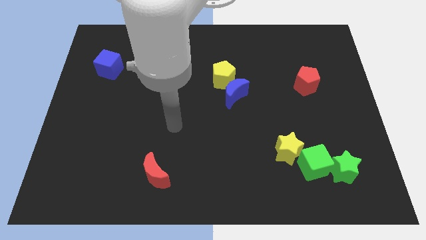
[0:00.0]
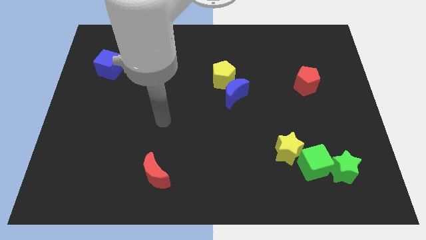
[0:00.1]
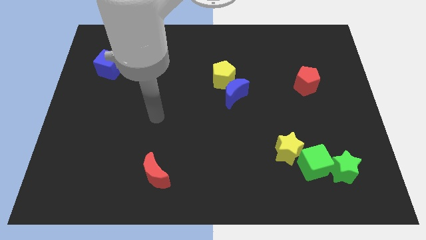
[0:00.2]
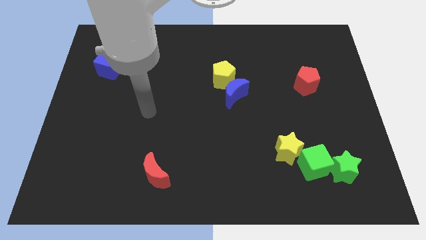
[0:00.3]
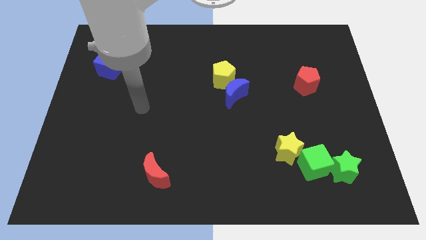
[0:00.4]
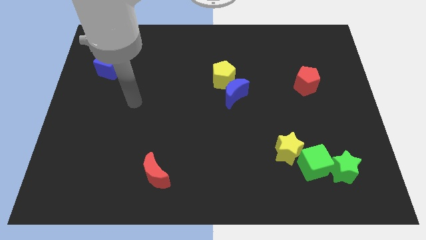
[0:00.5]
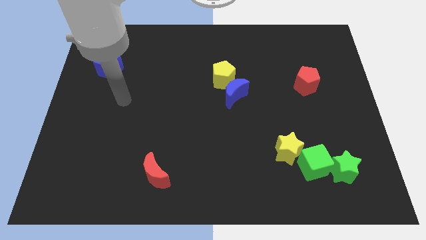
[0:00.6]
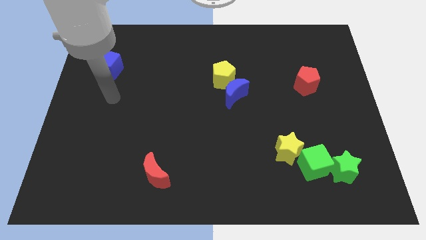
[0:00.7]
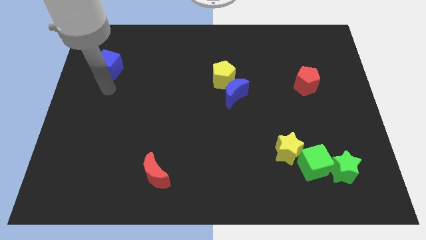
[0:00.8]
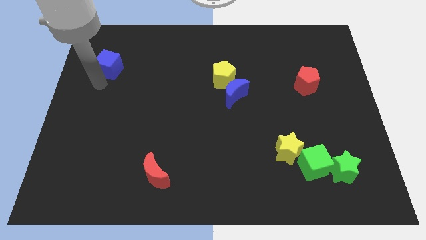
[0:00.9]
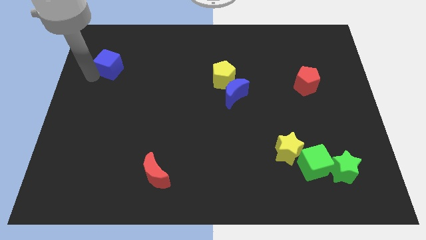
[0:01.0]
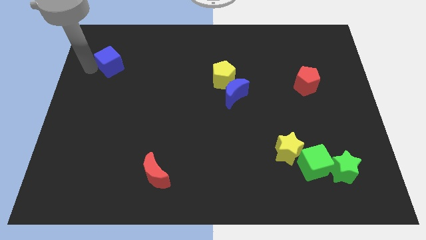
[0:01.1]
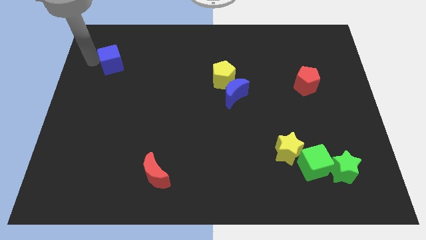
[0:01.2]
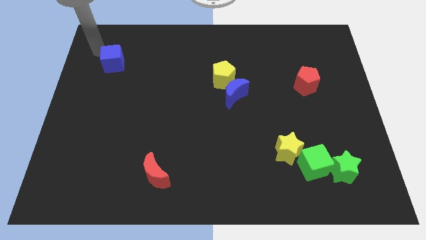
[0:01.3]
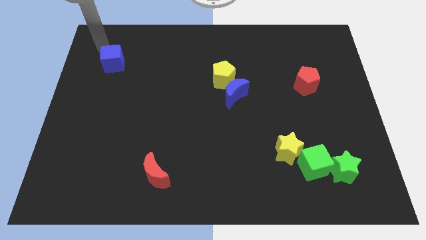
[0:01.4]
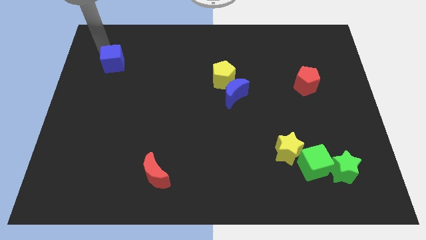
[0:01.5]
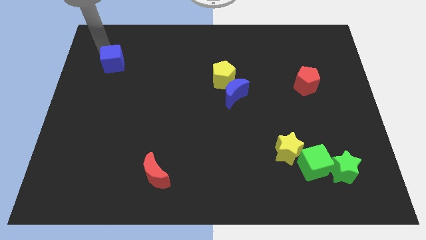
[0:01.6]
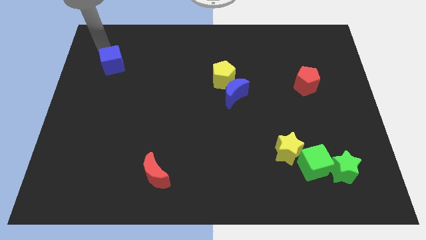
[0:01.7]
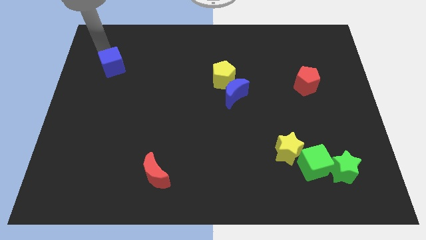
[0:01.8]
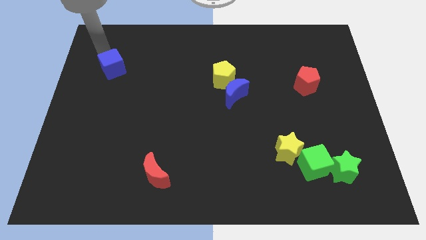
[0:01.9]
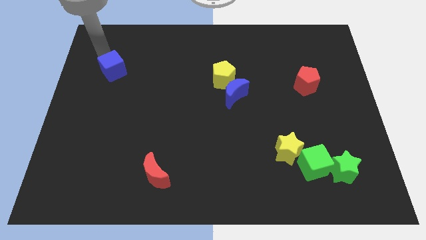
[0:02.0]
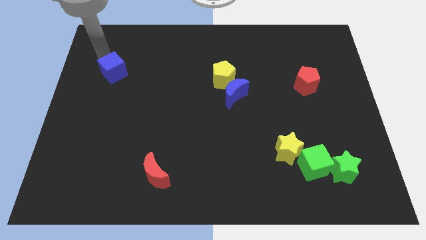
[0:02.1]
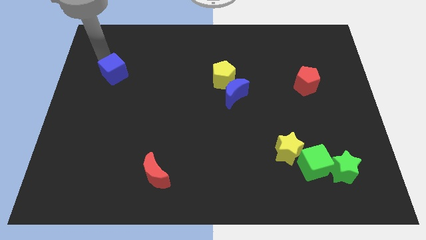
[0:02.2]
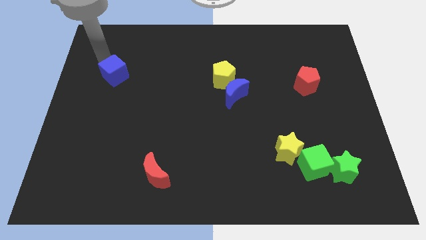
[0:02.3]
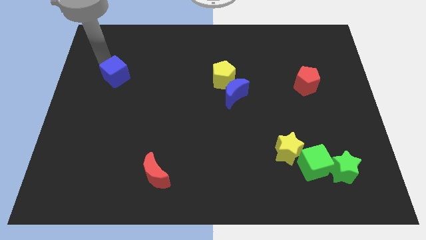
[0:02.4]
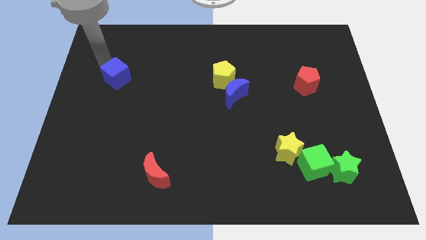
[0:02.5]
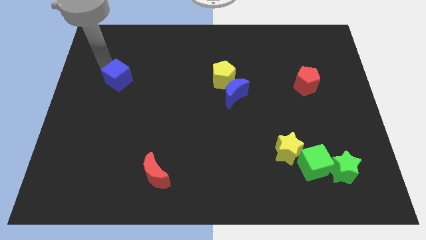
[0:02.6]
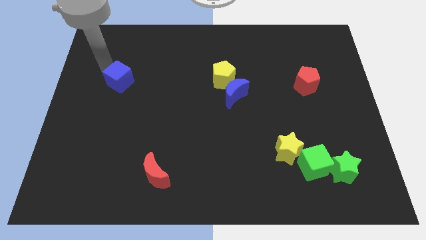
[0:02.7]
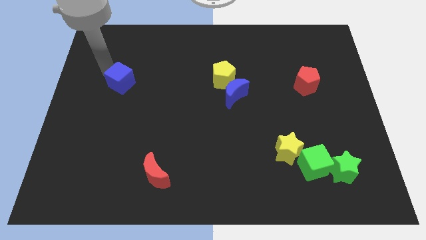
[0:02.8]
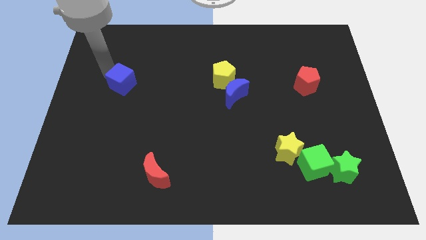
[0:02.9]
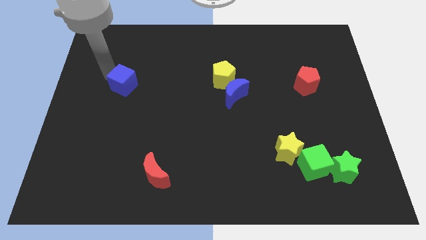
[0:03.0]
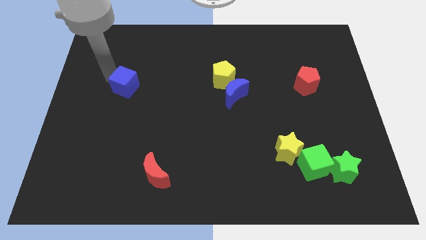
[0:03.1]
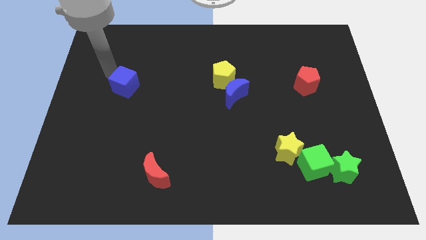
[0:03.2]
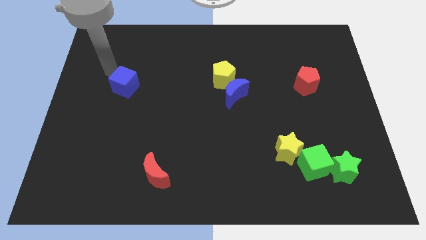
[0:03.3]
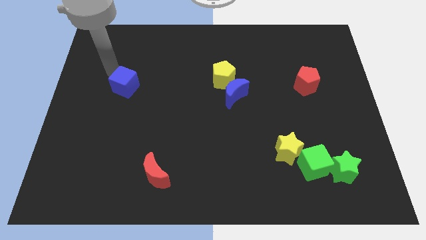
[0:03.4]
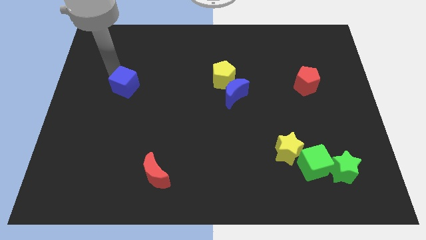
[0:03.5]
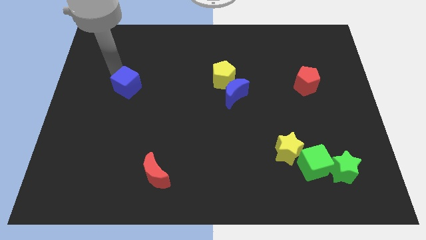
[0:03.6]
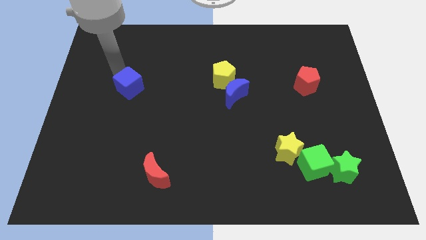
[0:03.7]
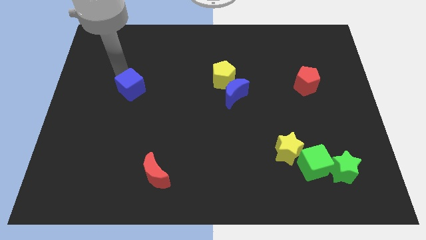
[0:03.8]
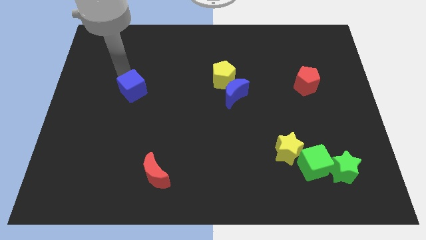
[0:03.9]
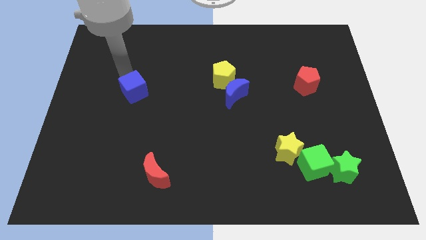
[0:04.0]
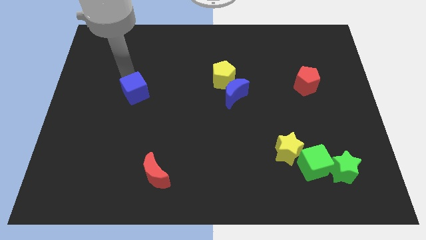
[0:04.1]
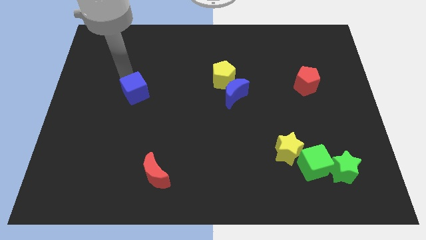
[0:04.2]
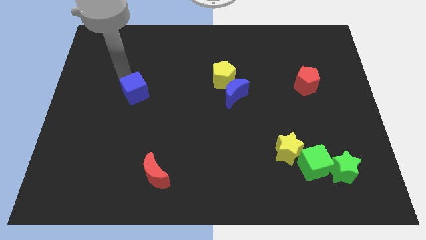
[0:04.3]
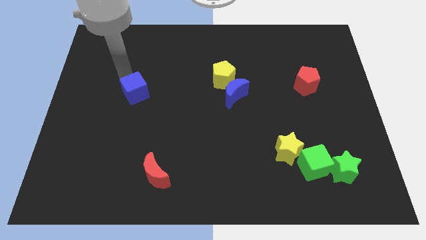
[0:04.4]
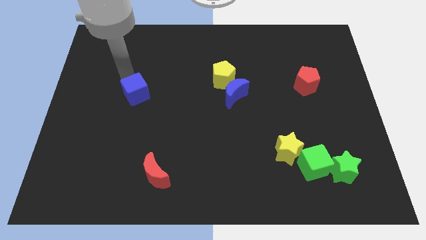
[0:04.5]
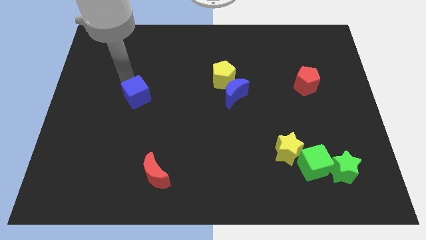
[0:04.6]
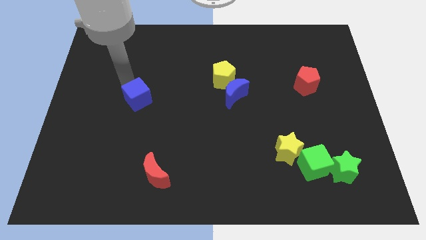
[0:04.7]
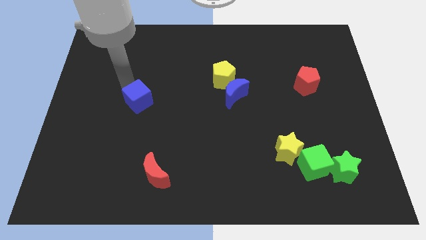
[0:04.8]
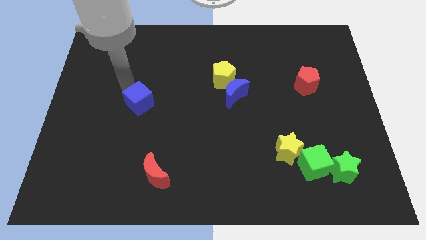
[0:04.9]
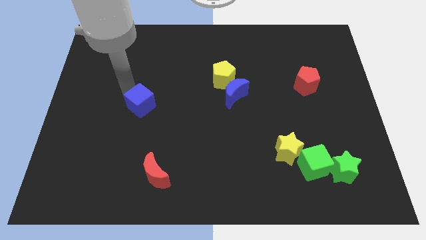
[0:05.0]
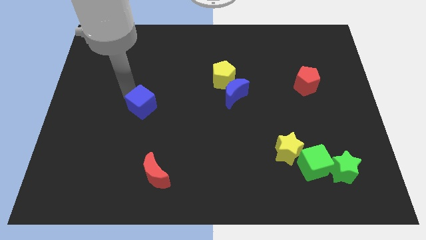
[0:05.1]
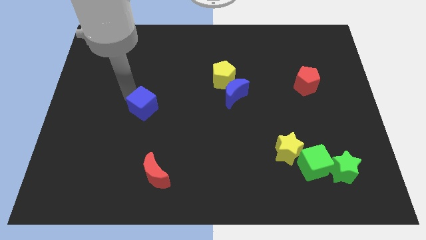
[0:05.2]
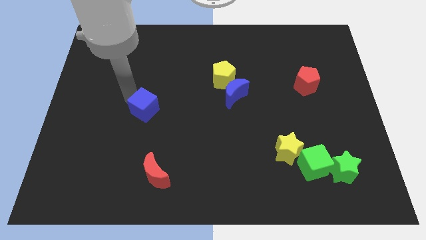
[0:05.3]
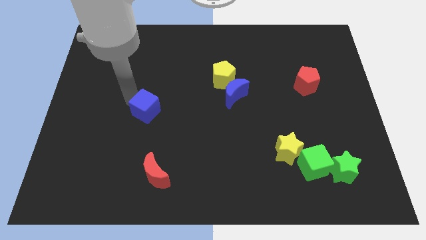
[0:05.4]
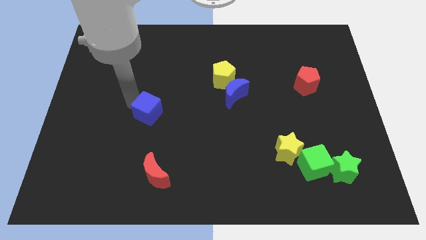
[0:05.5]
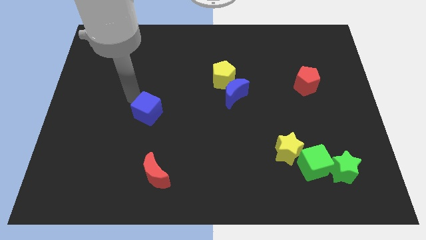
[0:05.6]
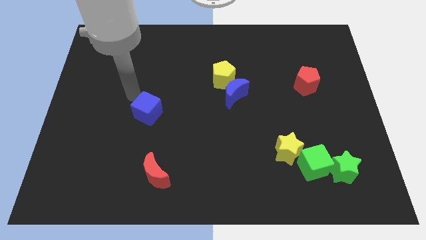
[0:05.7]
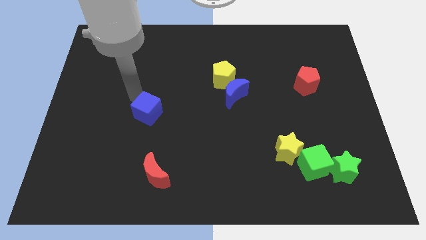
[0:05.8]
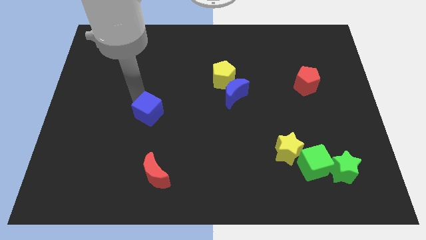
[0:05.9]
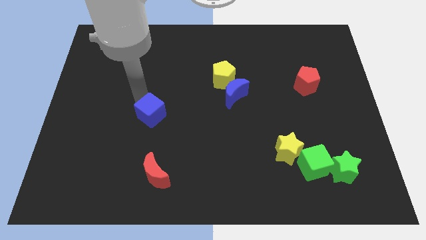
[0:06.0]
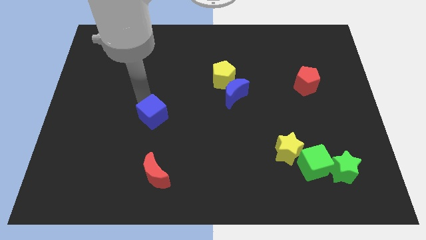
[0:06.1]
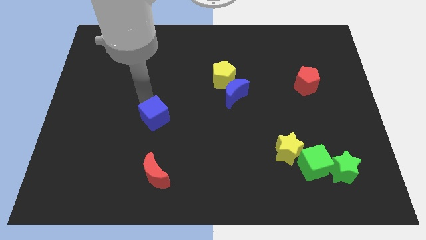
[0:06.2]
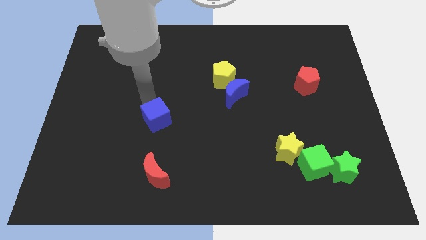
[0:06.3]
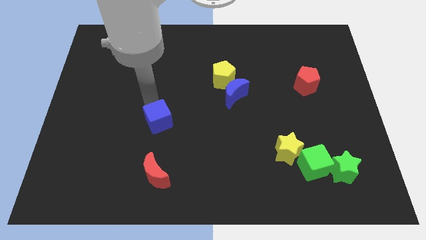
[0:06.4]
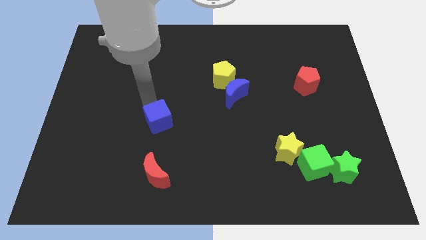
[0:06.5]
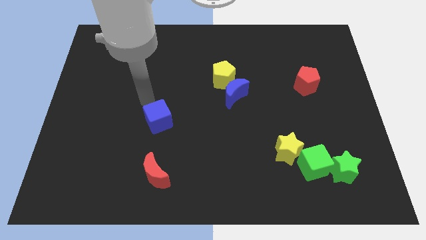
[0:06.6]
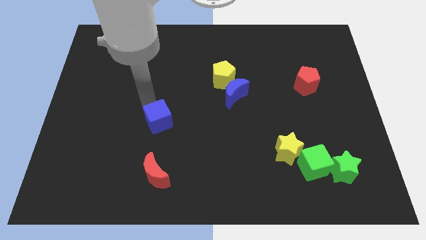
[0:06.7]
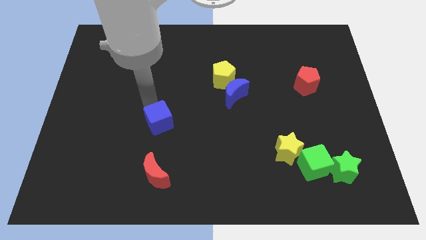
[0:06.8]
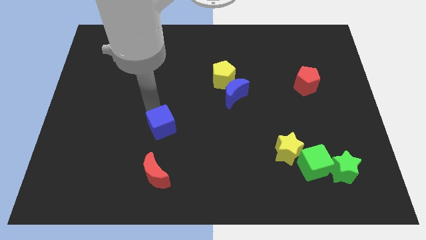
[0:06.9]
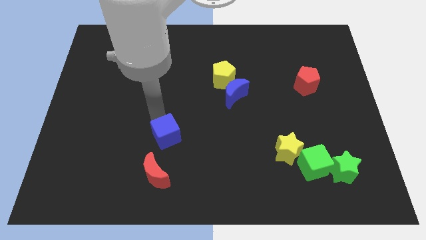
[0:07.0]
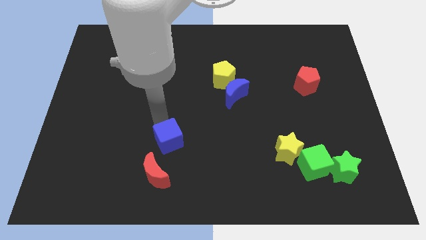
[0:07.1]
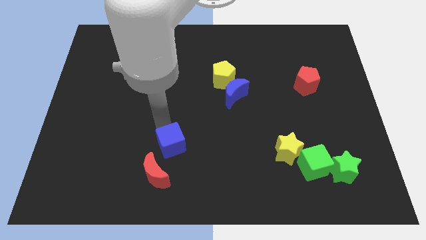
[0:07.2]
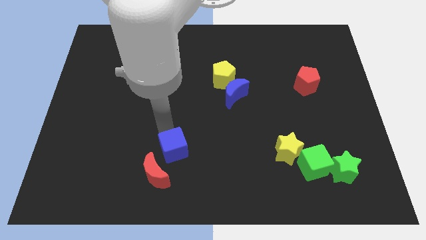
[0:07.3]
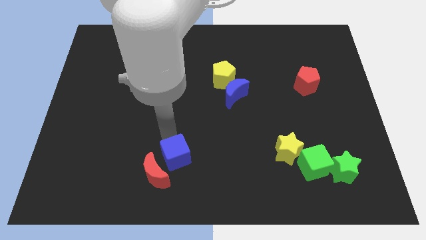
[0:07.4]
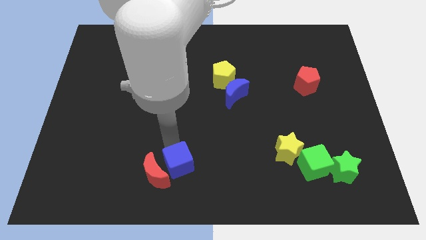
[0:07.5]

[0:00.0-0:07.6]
push the blue cube to the bottom
